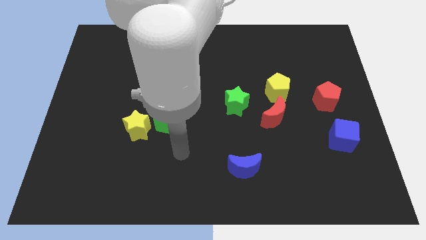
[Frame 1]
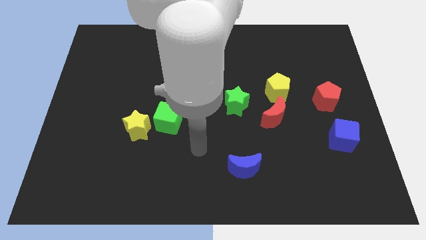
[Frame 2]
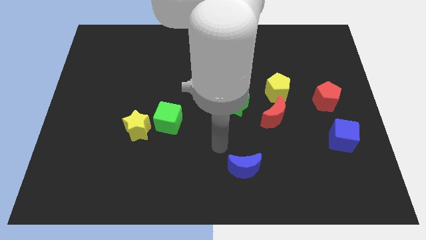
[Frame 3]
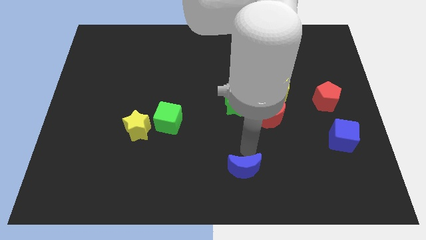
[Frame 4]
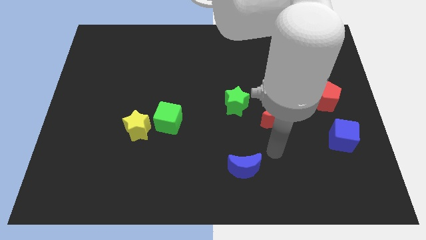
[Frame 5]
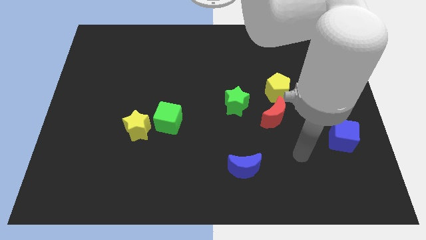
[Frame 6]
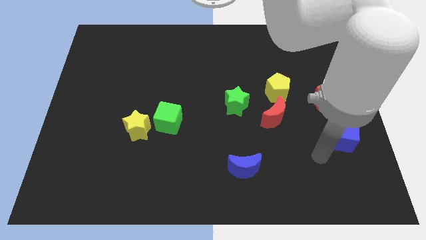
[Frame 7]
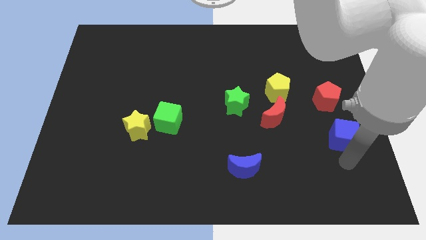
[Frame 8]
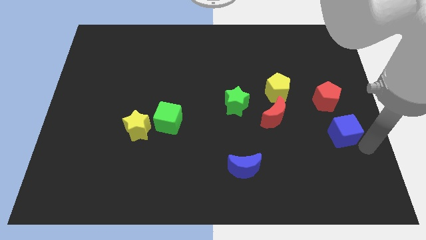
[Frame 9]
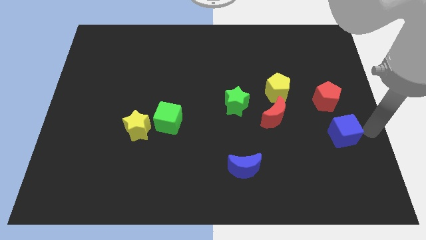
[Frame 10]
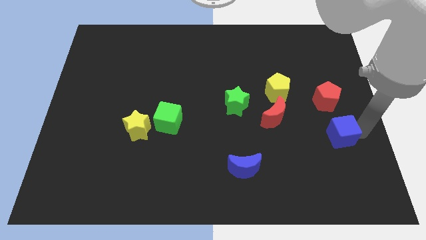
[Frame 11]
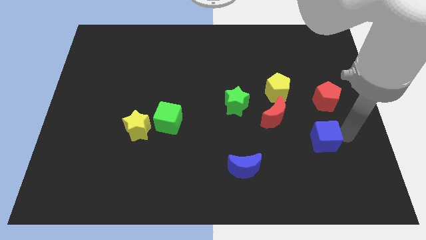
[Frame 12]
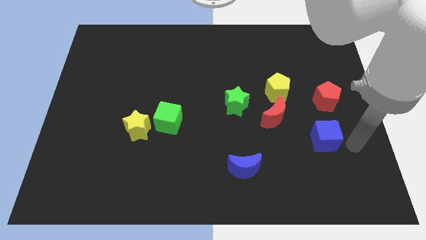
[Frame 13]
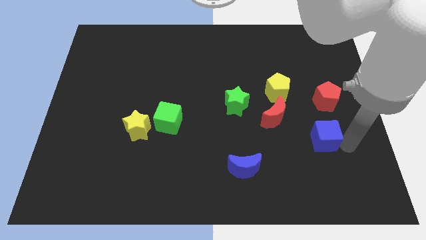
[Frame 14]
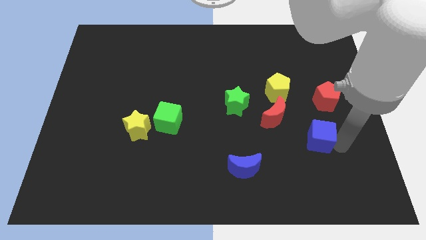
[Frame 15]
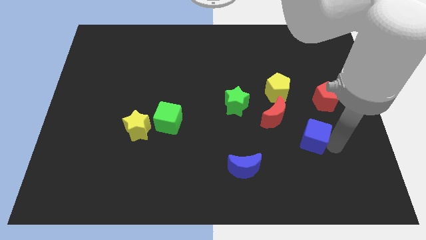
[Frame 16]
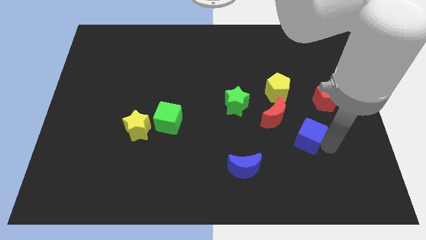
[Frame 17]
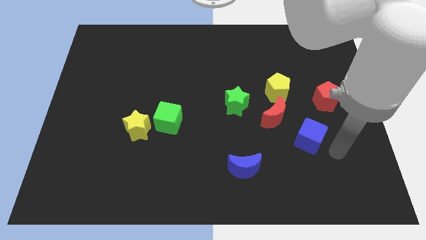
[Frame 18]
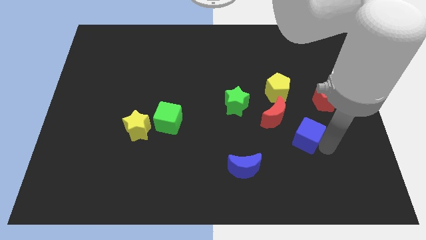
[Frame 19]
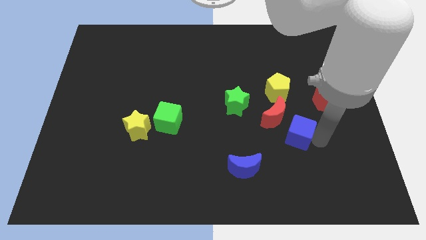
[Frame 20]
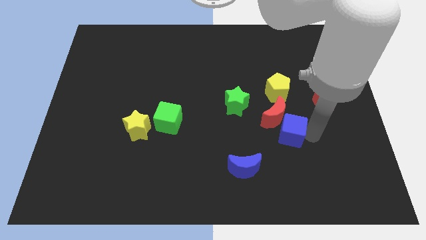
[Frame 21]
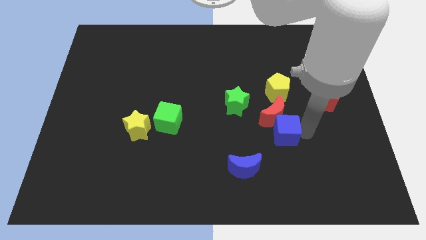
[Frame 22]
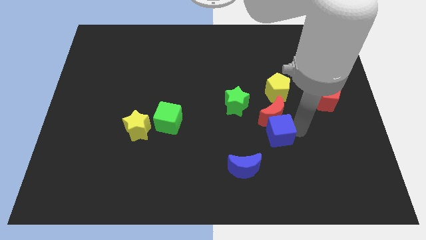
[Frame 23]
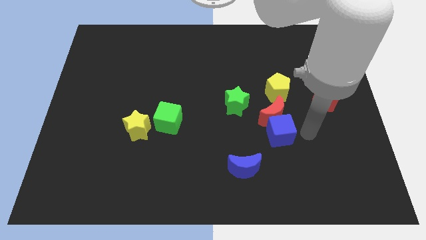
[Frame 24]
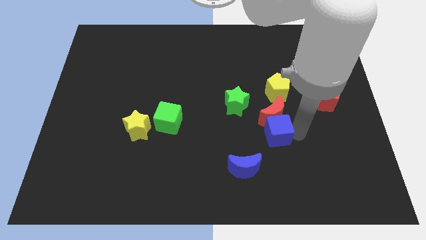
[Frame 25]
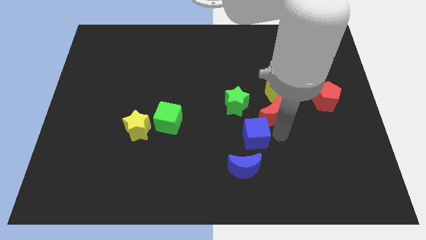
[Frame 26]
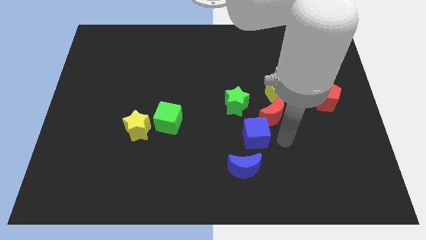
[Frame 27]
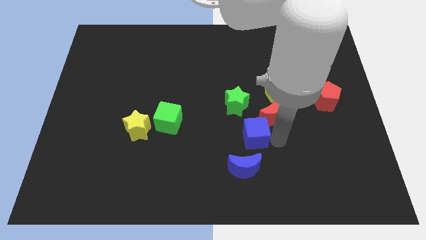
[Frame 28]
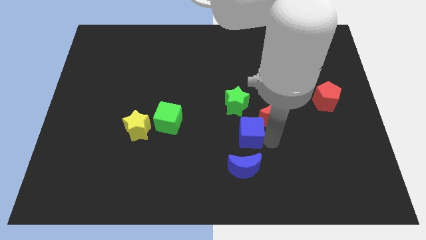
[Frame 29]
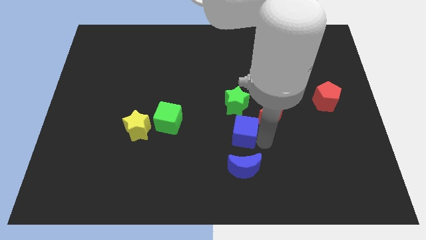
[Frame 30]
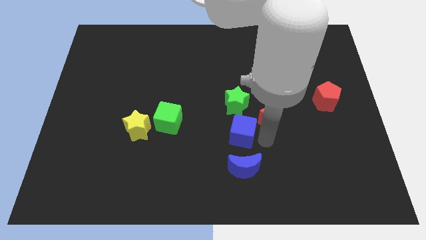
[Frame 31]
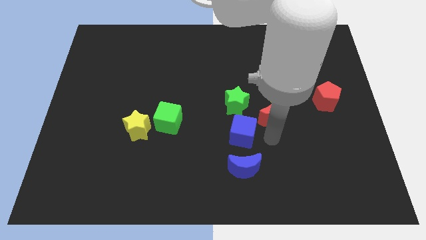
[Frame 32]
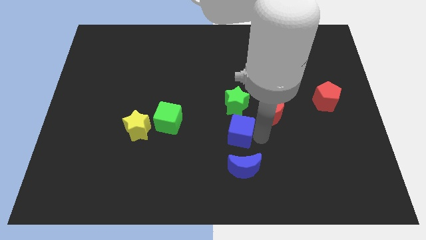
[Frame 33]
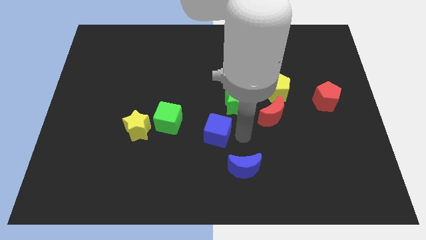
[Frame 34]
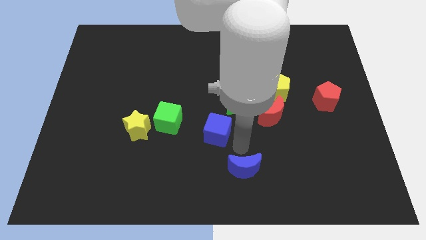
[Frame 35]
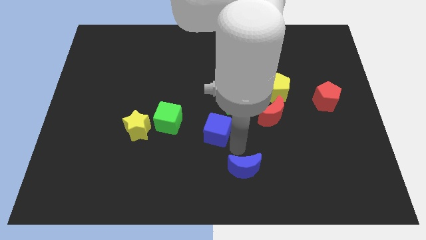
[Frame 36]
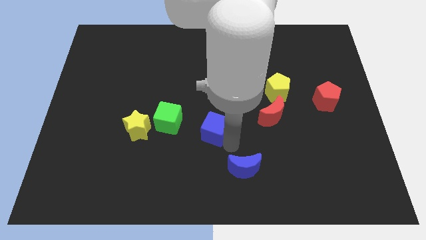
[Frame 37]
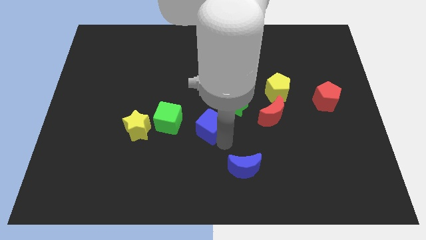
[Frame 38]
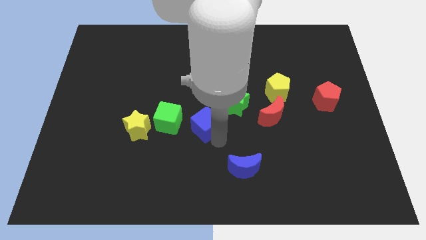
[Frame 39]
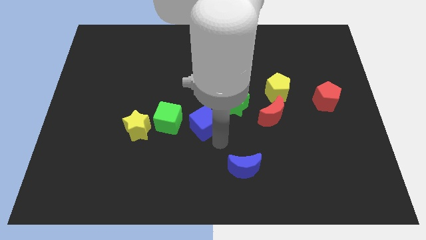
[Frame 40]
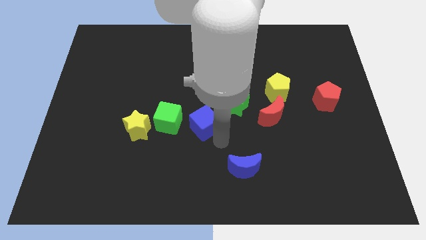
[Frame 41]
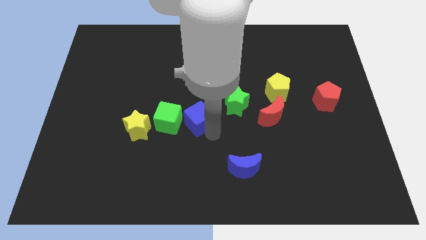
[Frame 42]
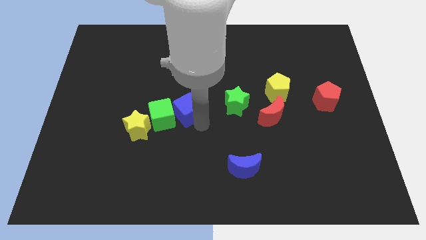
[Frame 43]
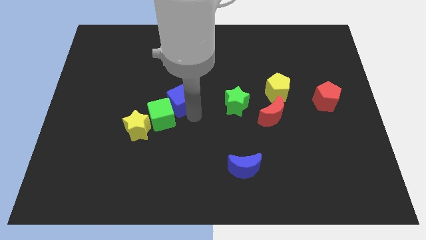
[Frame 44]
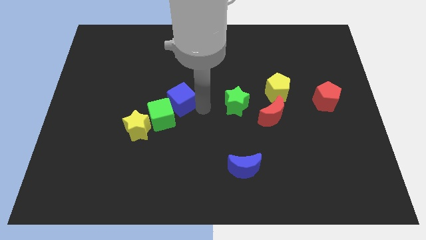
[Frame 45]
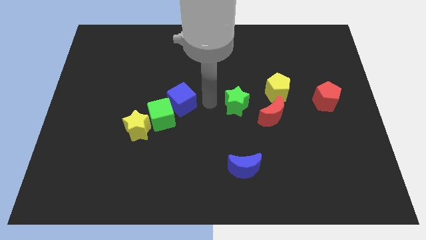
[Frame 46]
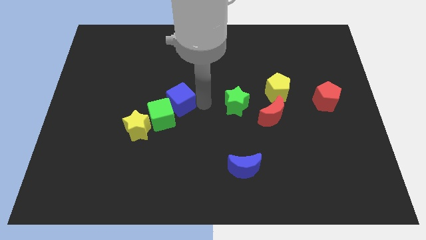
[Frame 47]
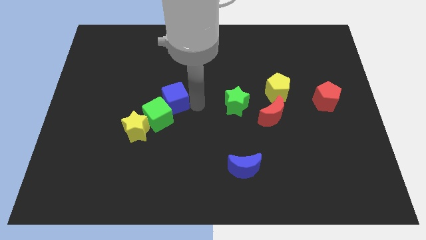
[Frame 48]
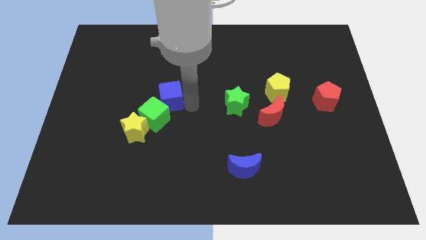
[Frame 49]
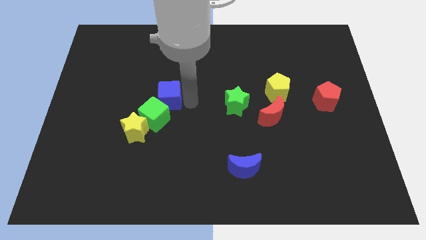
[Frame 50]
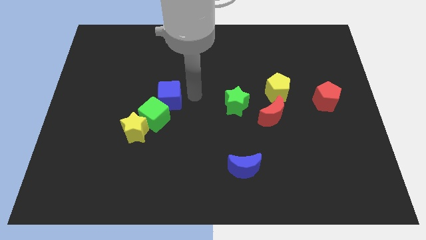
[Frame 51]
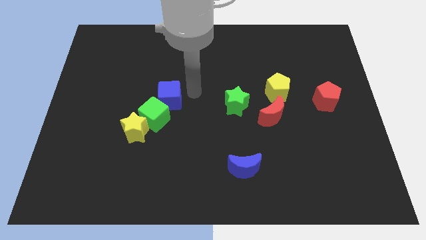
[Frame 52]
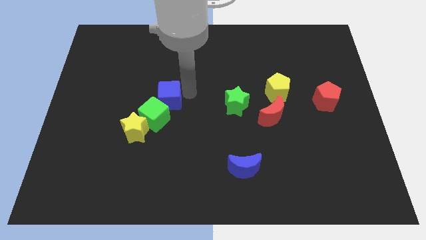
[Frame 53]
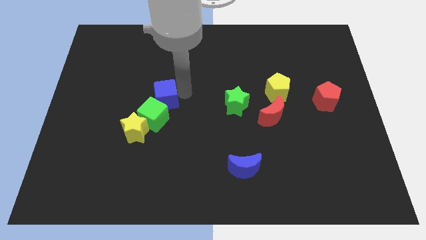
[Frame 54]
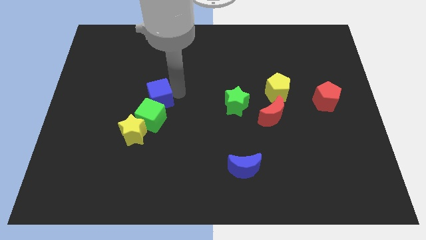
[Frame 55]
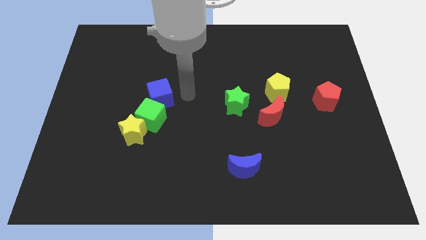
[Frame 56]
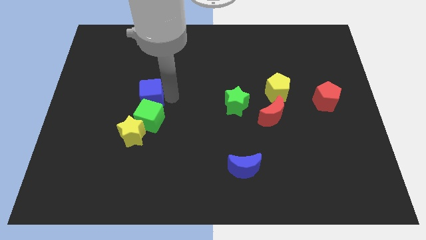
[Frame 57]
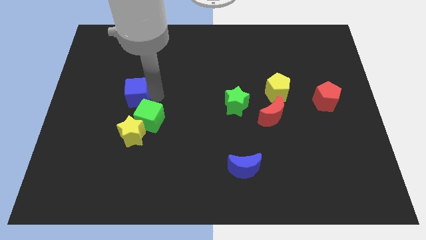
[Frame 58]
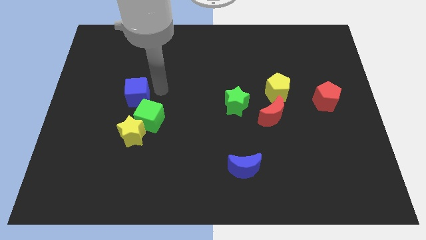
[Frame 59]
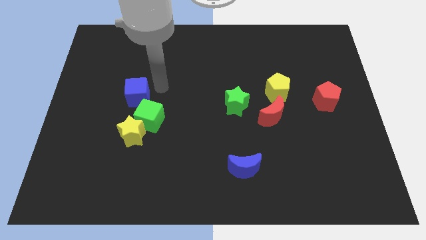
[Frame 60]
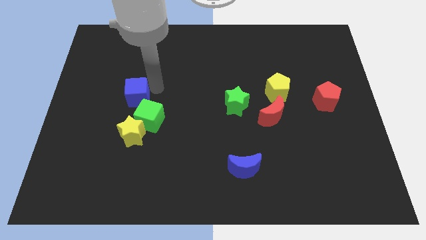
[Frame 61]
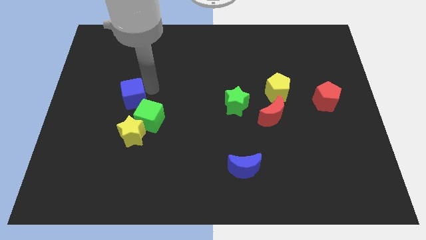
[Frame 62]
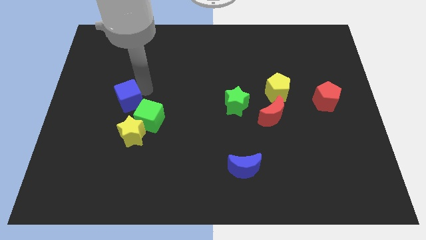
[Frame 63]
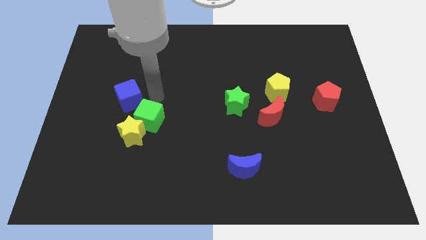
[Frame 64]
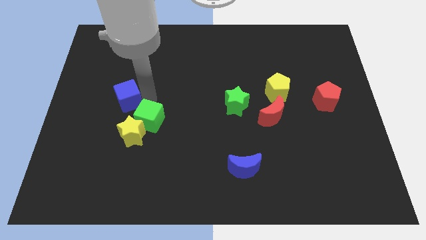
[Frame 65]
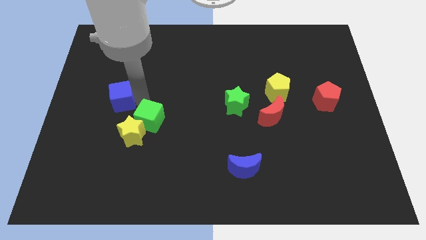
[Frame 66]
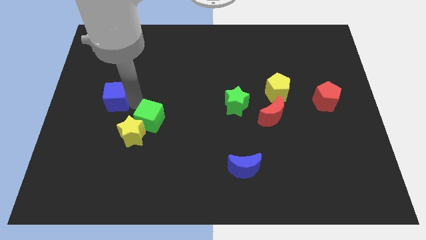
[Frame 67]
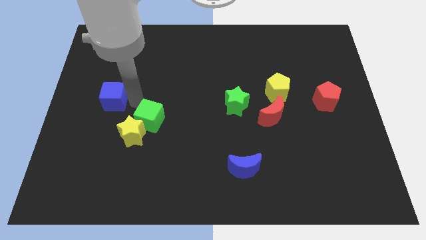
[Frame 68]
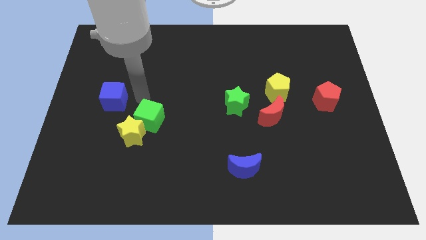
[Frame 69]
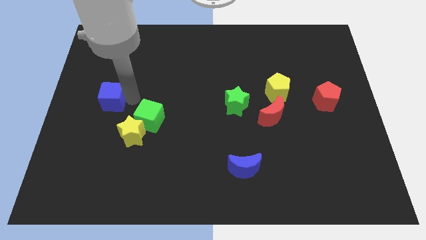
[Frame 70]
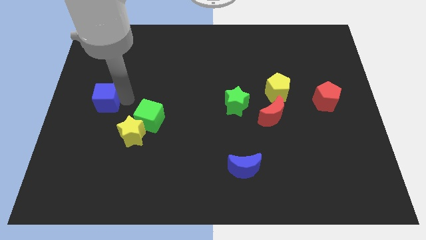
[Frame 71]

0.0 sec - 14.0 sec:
push the blue cube to the center left
